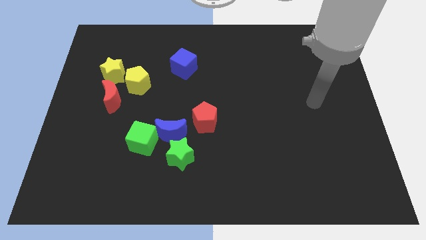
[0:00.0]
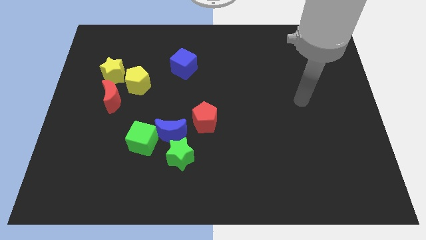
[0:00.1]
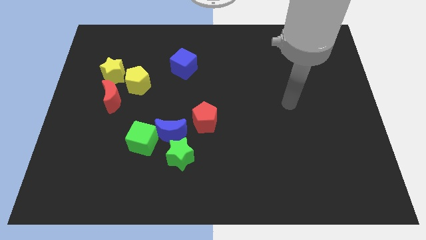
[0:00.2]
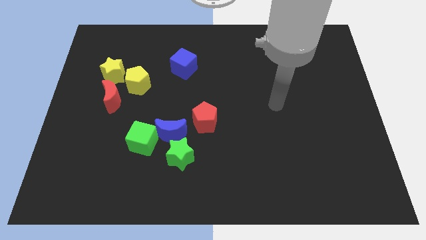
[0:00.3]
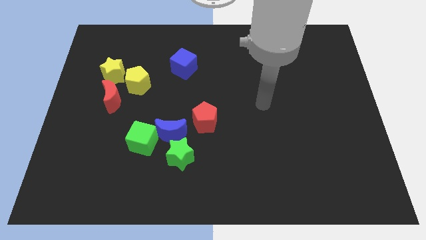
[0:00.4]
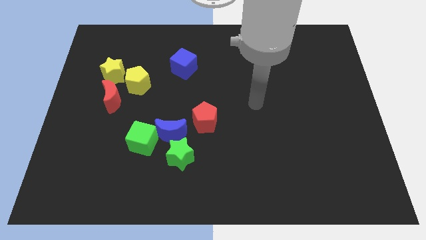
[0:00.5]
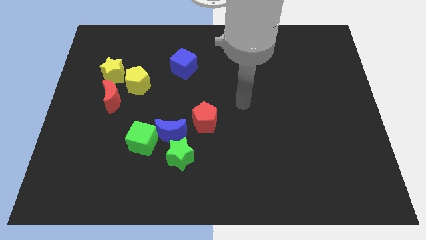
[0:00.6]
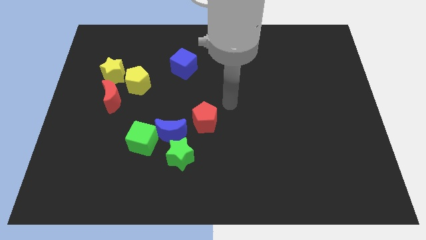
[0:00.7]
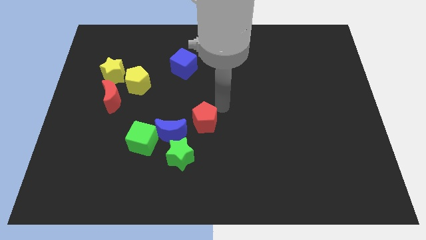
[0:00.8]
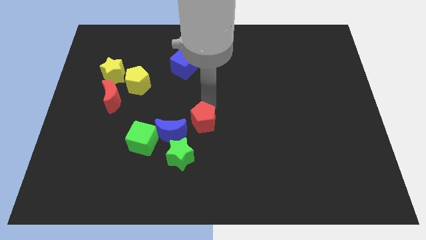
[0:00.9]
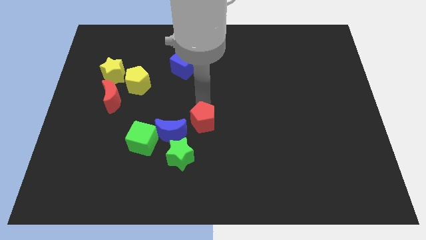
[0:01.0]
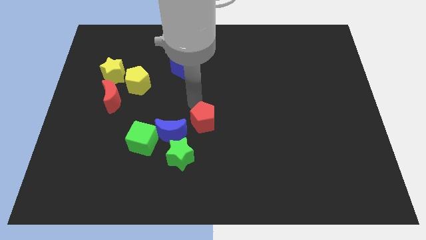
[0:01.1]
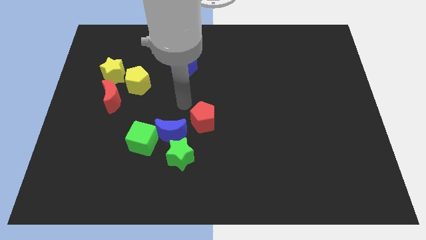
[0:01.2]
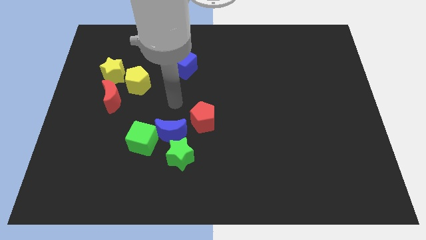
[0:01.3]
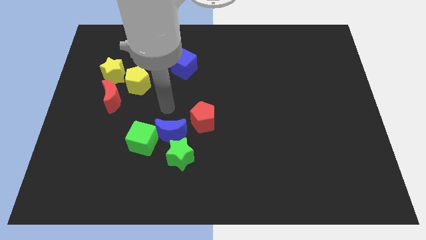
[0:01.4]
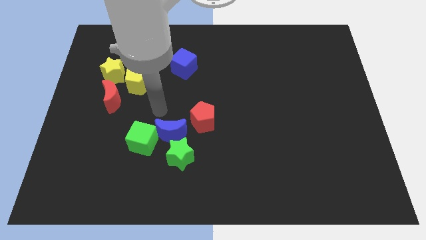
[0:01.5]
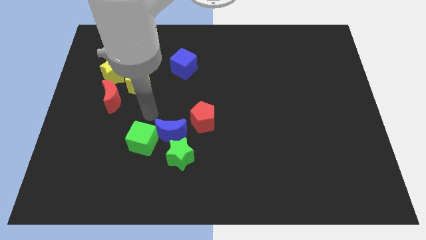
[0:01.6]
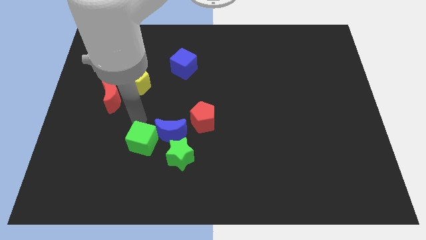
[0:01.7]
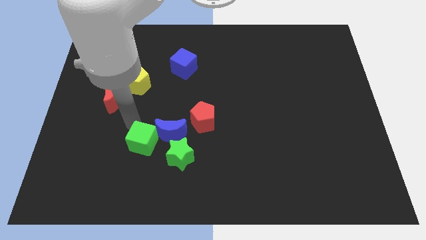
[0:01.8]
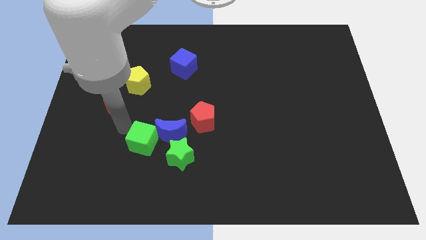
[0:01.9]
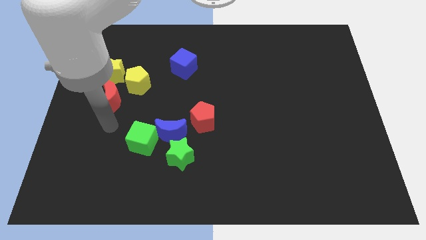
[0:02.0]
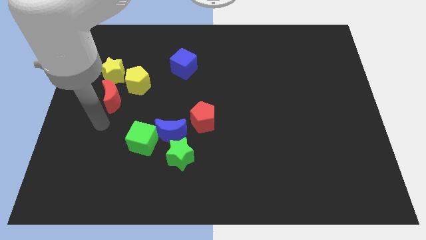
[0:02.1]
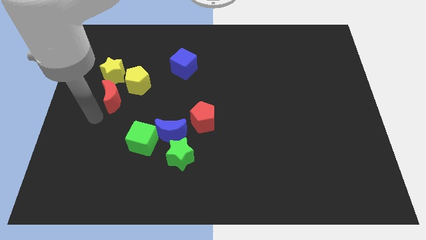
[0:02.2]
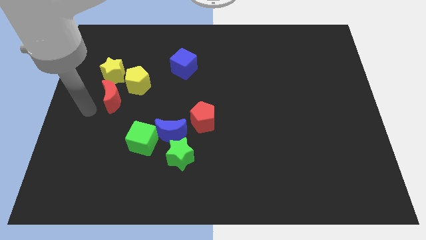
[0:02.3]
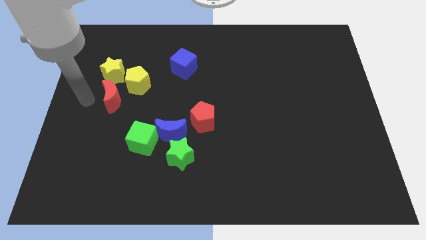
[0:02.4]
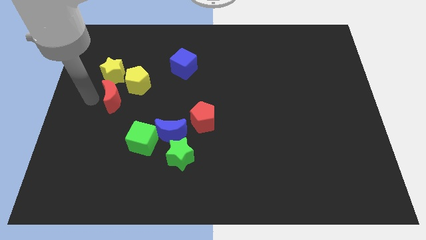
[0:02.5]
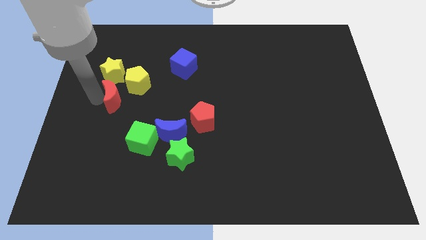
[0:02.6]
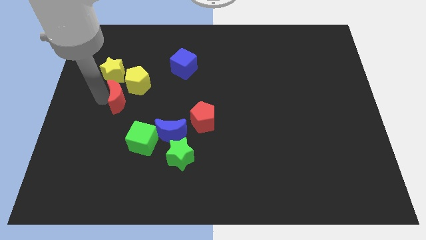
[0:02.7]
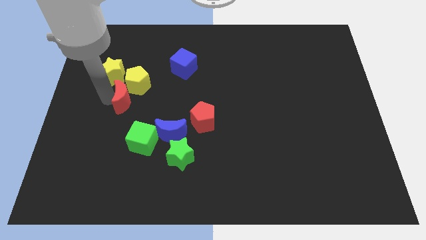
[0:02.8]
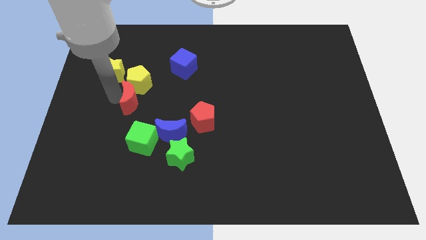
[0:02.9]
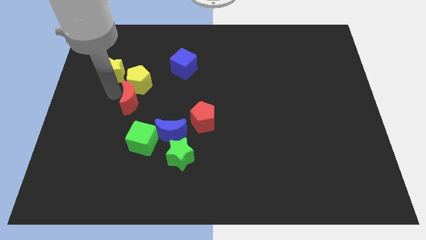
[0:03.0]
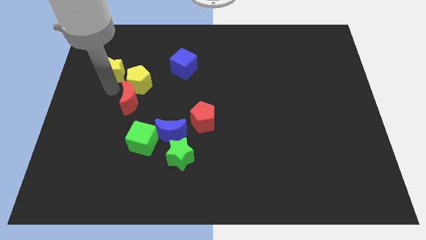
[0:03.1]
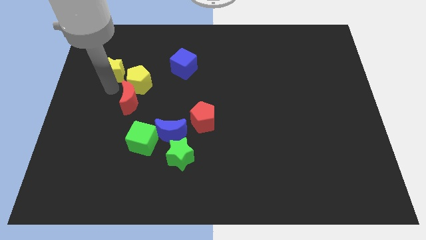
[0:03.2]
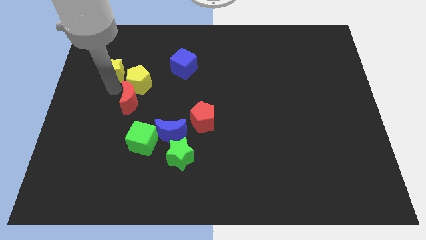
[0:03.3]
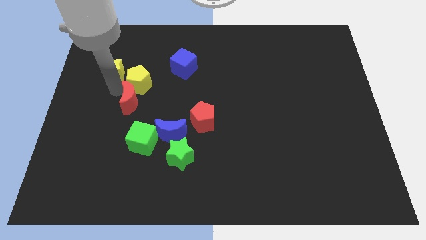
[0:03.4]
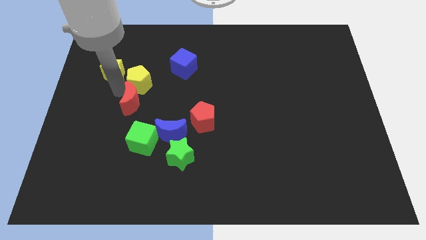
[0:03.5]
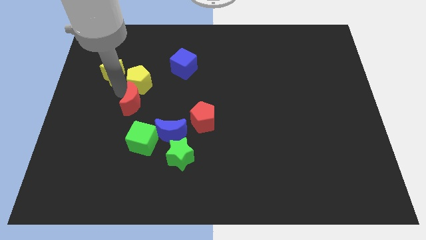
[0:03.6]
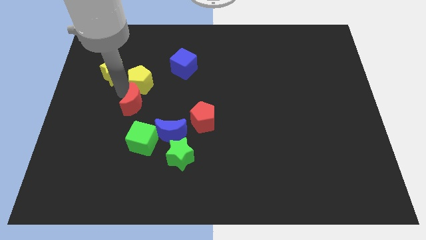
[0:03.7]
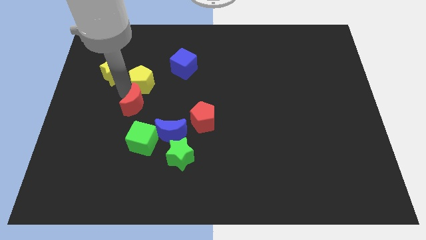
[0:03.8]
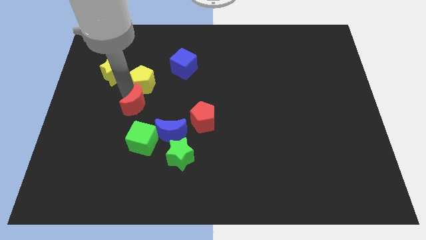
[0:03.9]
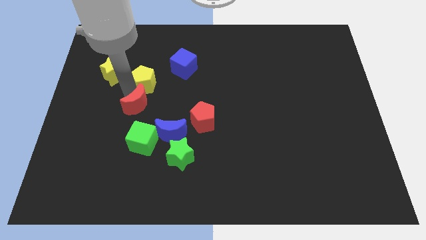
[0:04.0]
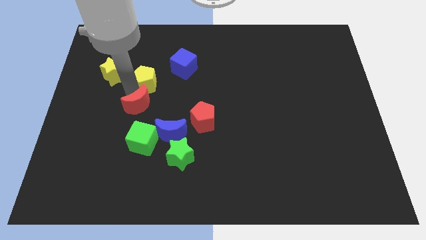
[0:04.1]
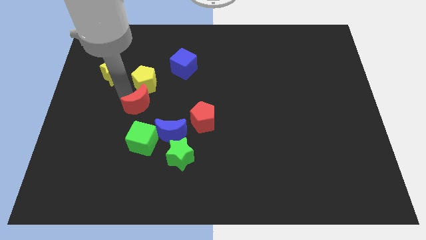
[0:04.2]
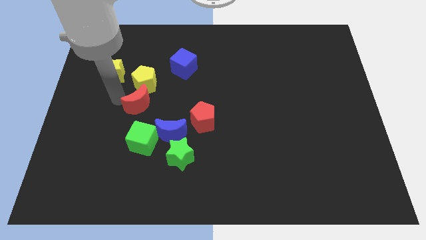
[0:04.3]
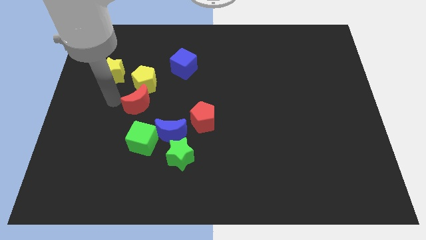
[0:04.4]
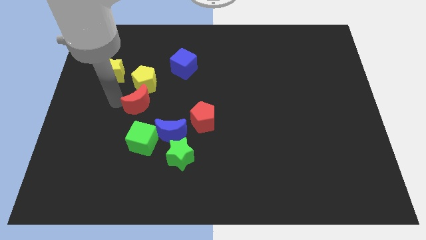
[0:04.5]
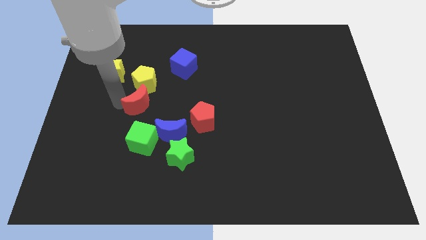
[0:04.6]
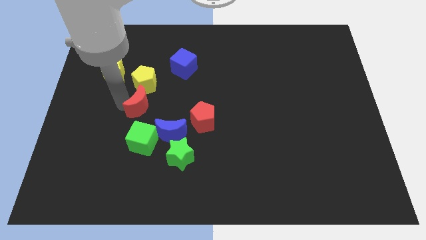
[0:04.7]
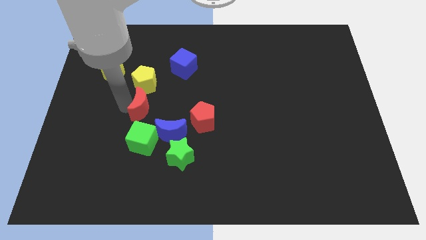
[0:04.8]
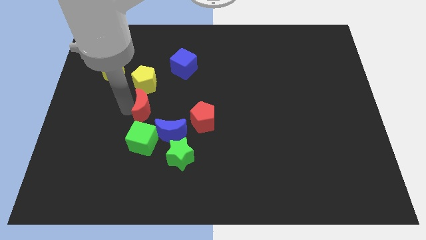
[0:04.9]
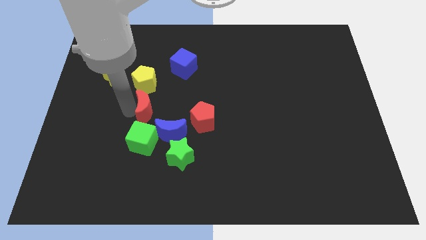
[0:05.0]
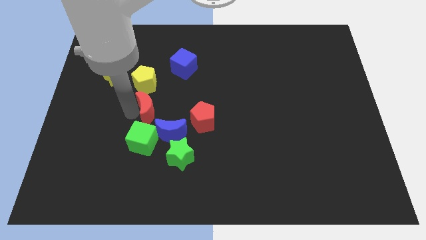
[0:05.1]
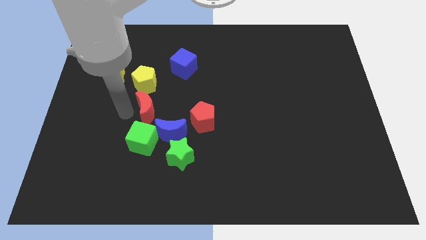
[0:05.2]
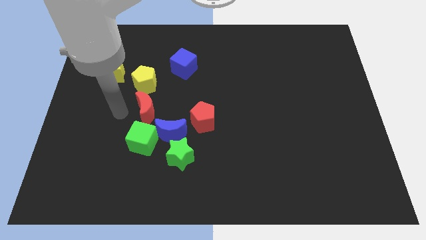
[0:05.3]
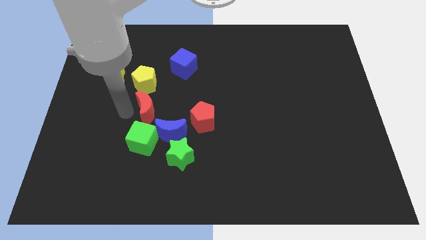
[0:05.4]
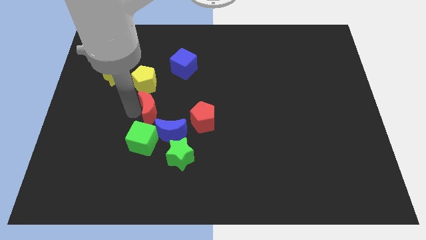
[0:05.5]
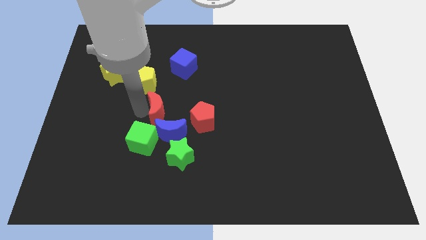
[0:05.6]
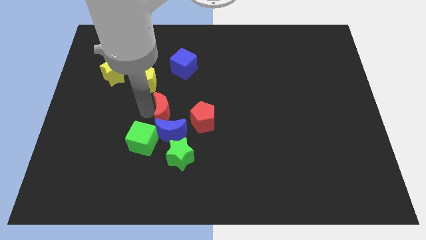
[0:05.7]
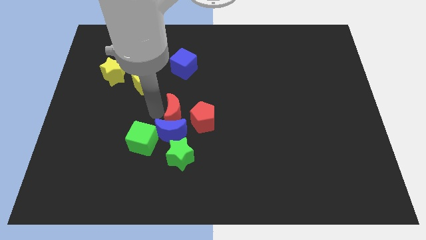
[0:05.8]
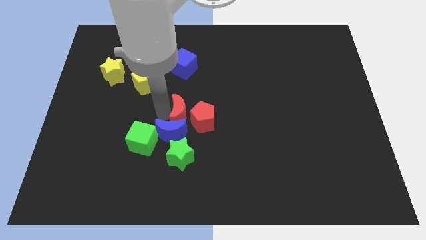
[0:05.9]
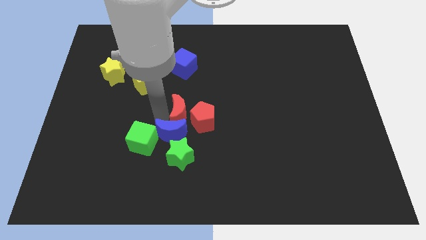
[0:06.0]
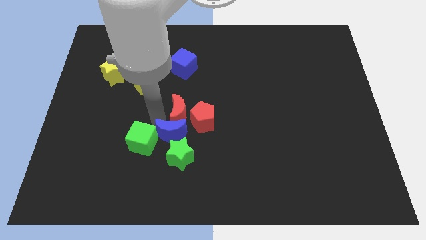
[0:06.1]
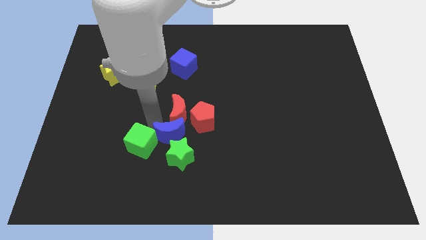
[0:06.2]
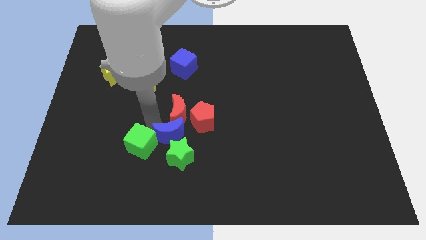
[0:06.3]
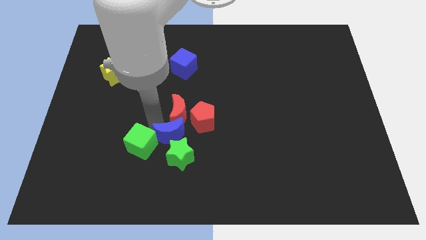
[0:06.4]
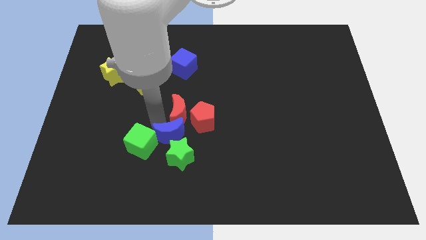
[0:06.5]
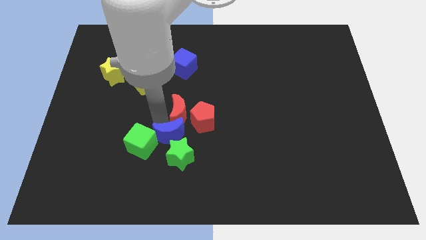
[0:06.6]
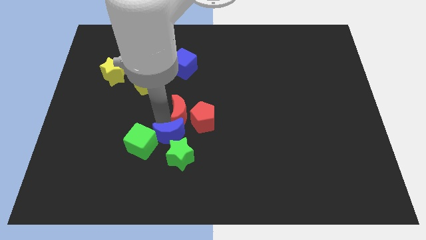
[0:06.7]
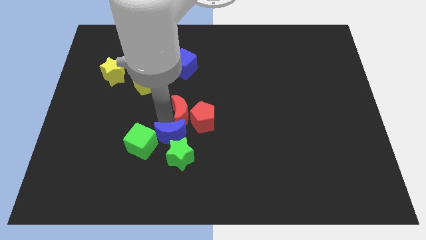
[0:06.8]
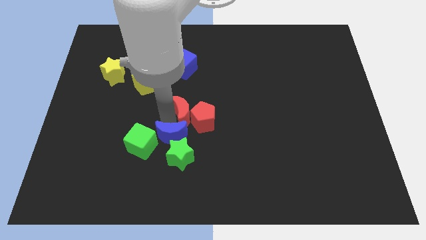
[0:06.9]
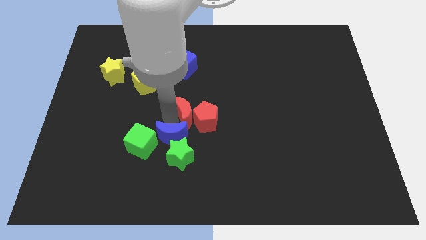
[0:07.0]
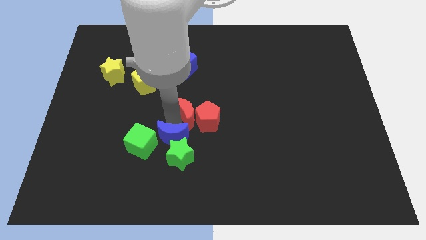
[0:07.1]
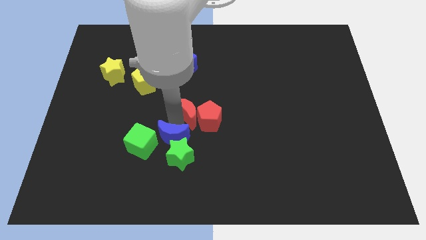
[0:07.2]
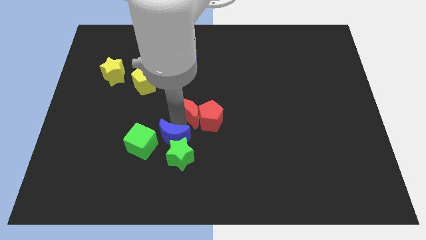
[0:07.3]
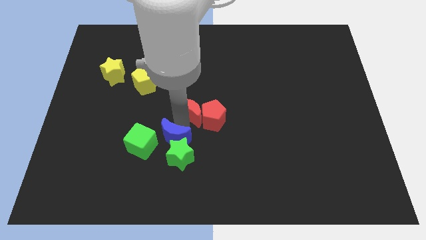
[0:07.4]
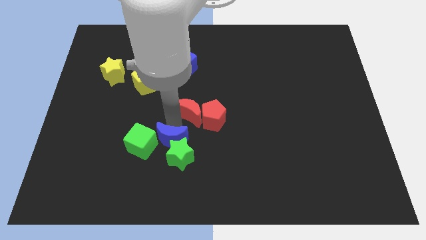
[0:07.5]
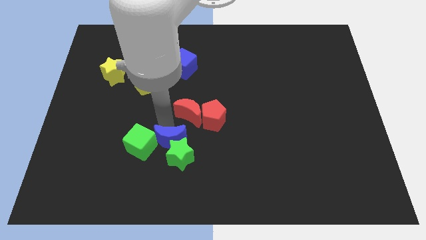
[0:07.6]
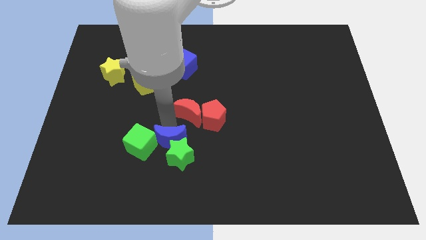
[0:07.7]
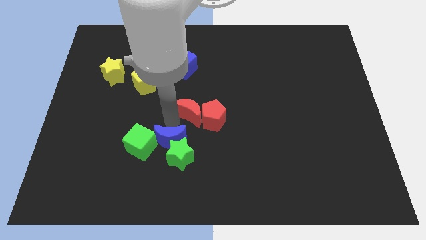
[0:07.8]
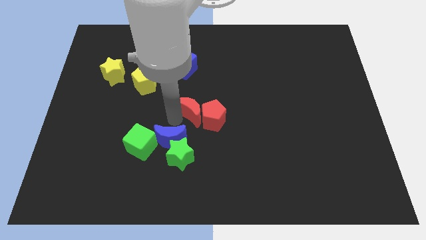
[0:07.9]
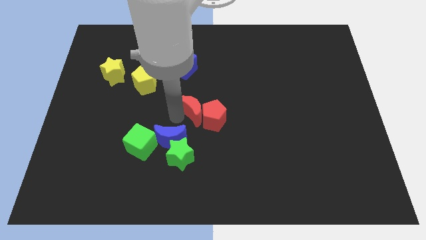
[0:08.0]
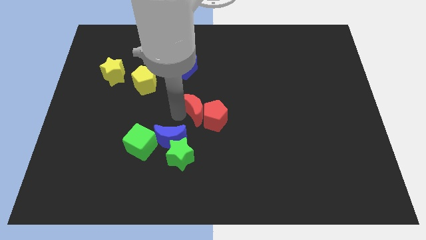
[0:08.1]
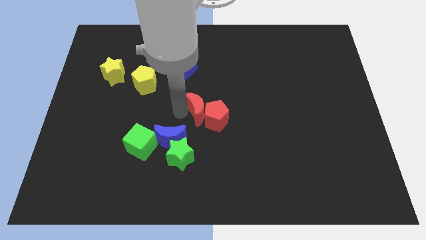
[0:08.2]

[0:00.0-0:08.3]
move the red moon to the right
